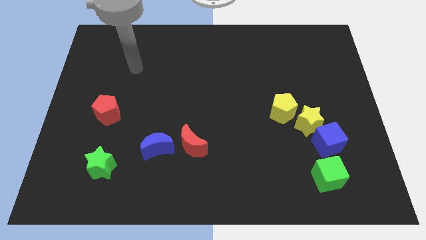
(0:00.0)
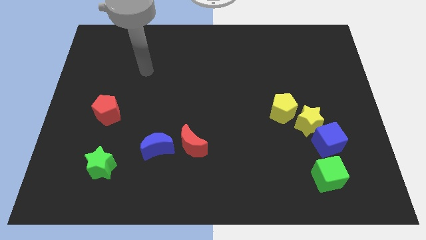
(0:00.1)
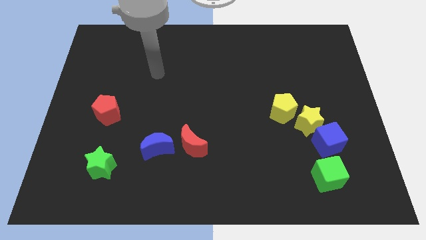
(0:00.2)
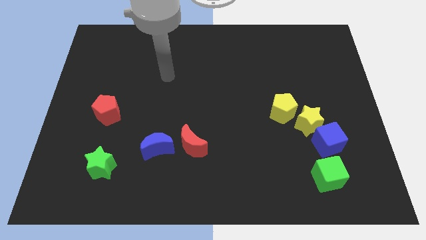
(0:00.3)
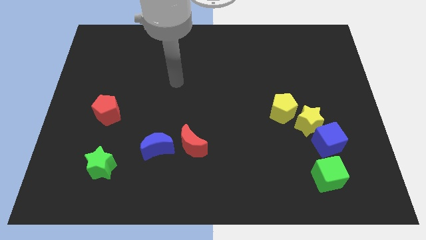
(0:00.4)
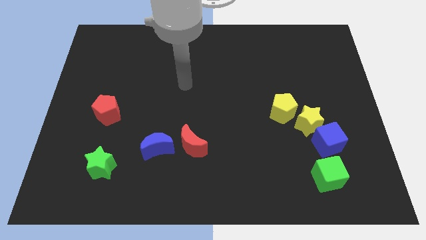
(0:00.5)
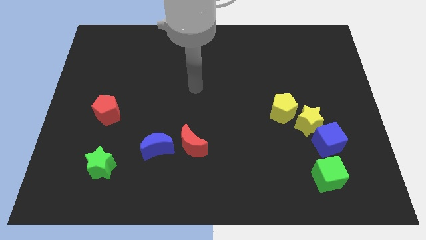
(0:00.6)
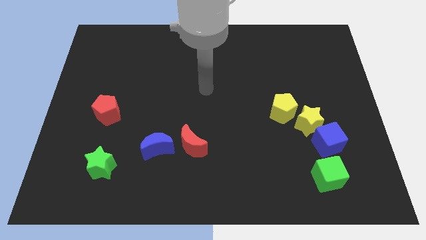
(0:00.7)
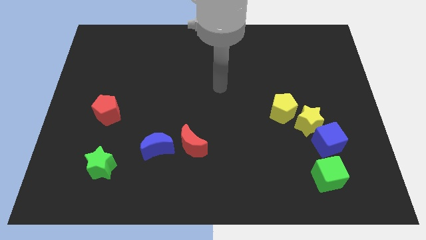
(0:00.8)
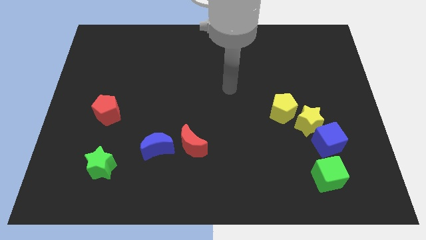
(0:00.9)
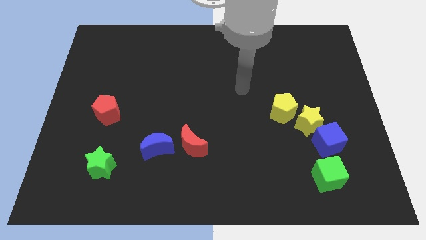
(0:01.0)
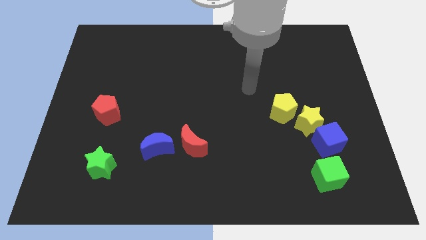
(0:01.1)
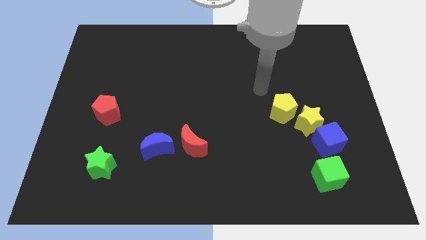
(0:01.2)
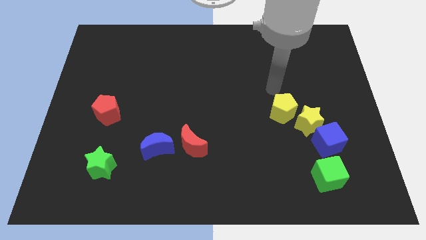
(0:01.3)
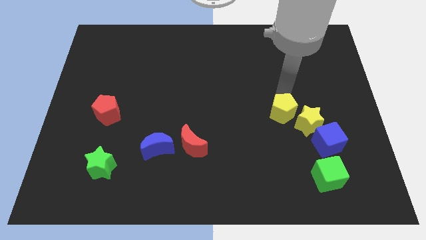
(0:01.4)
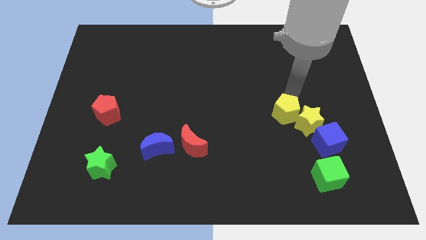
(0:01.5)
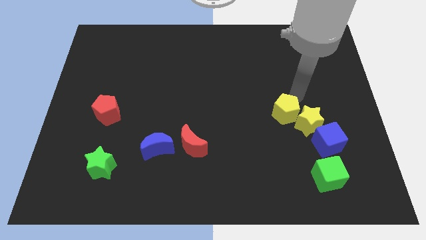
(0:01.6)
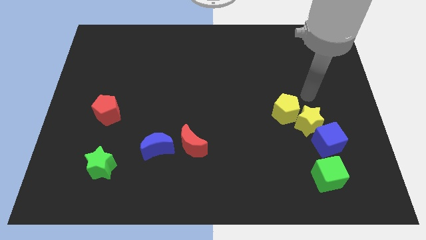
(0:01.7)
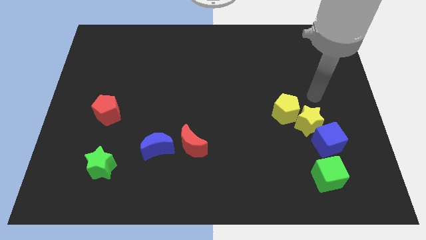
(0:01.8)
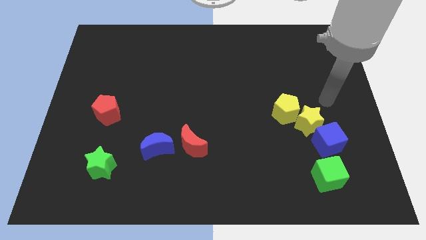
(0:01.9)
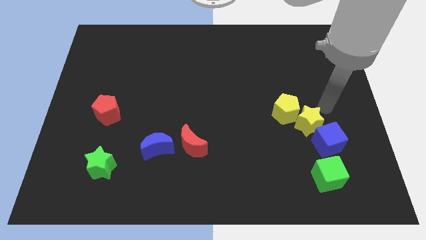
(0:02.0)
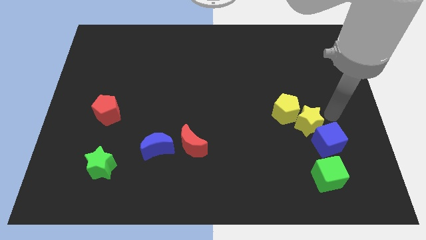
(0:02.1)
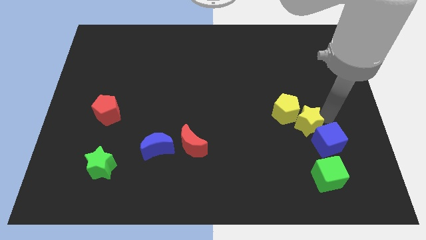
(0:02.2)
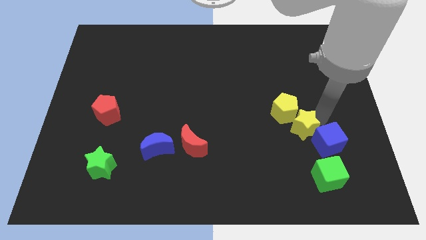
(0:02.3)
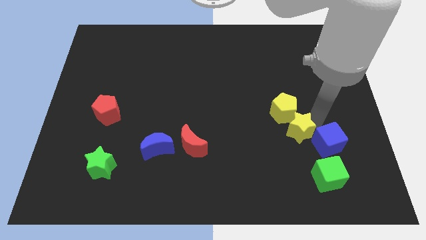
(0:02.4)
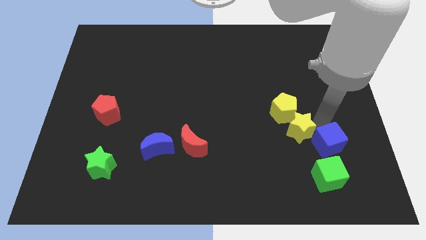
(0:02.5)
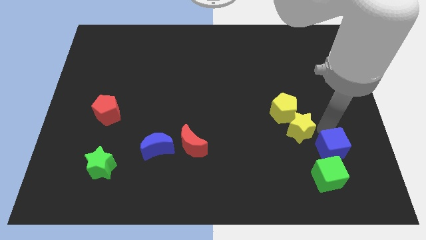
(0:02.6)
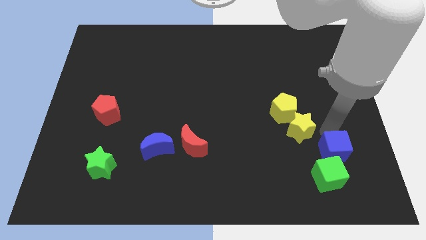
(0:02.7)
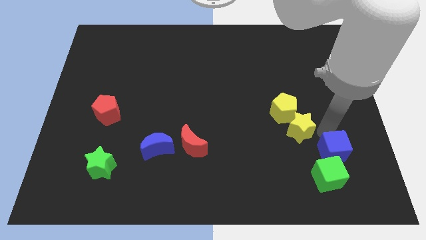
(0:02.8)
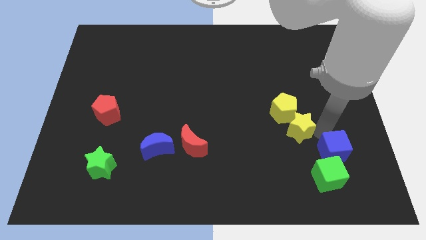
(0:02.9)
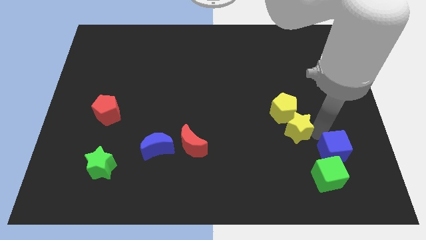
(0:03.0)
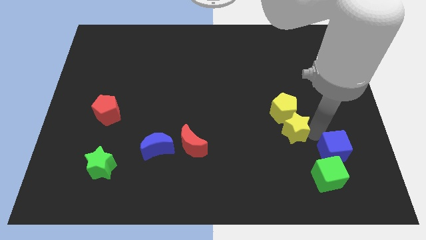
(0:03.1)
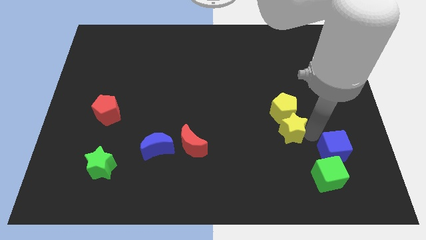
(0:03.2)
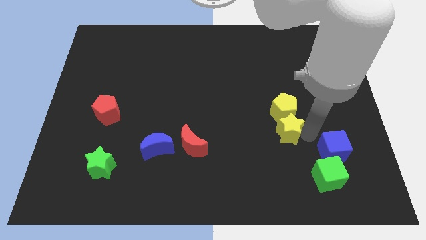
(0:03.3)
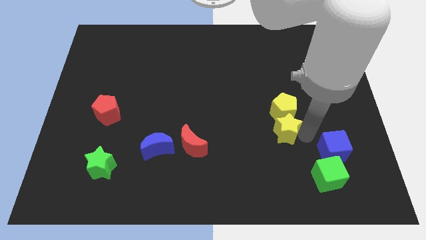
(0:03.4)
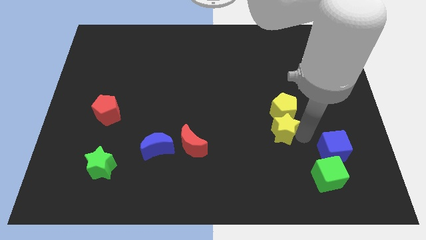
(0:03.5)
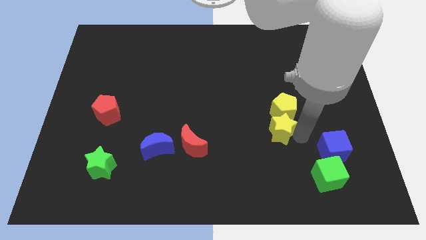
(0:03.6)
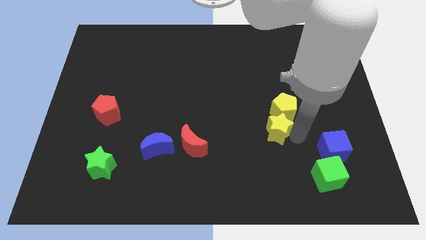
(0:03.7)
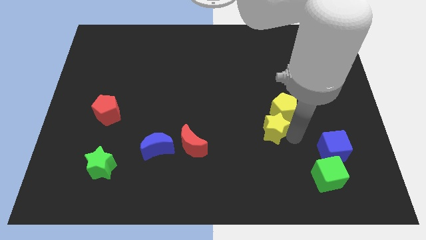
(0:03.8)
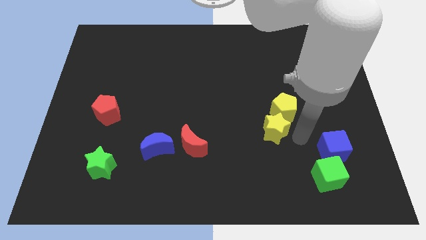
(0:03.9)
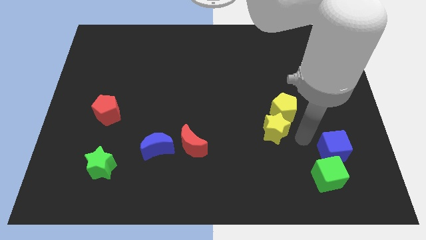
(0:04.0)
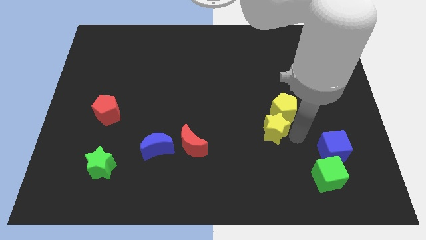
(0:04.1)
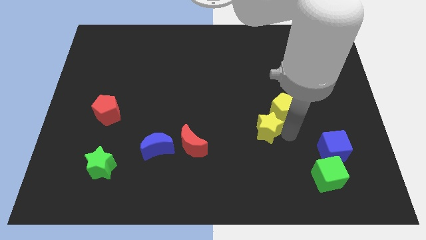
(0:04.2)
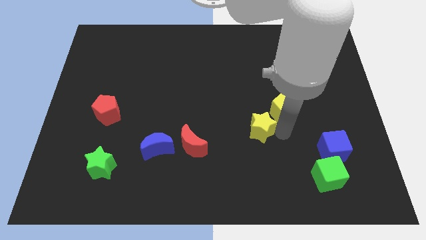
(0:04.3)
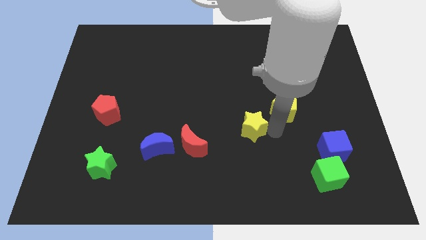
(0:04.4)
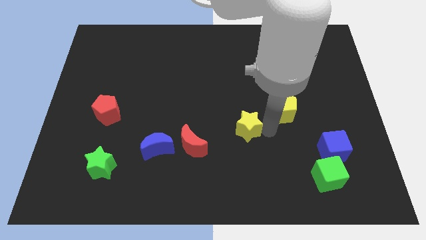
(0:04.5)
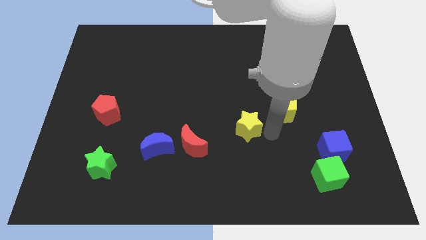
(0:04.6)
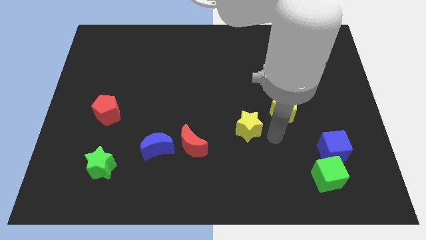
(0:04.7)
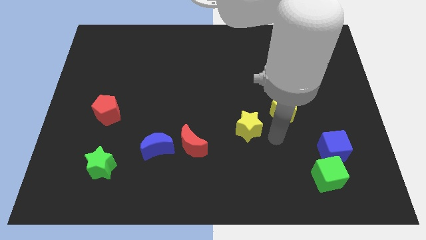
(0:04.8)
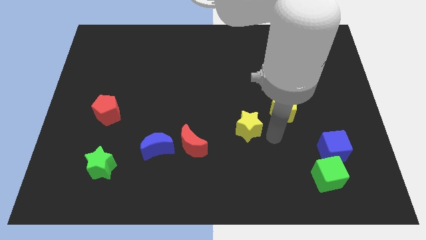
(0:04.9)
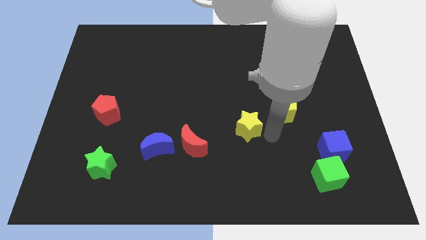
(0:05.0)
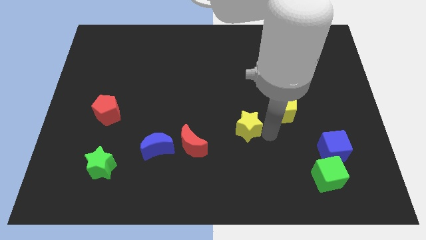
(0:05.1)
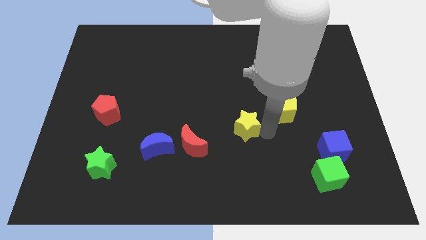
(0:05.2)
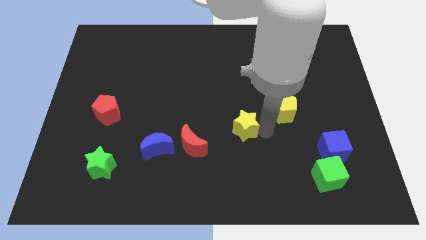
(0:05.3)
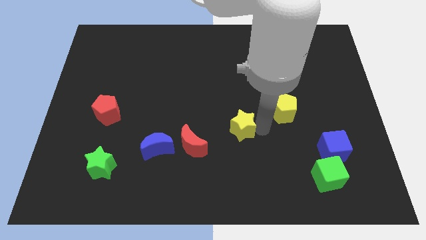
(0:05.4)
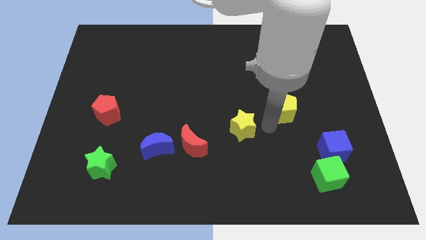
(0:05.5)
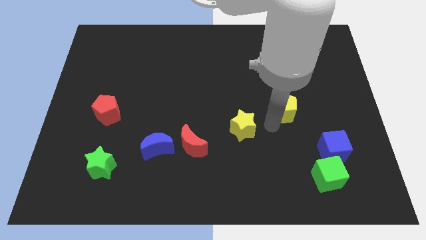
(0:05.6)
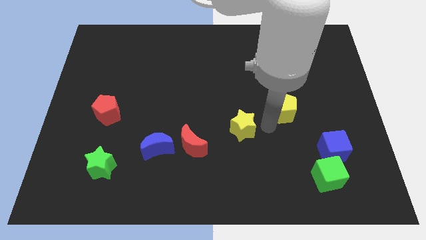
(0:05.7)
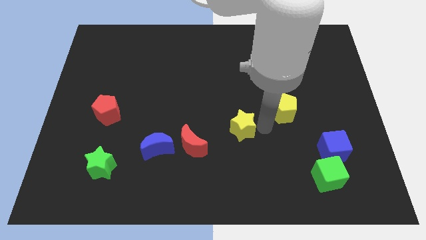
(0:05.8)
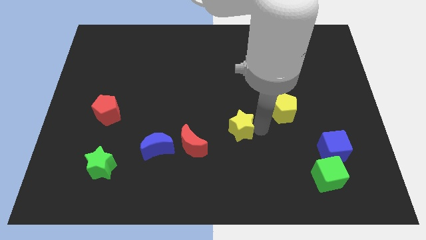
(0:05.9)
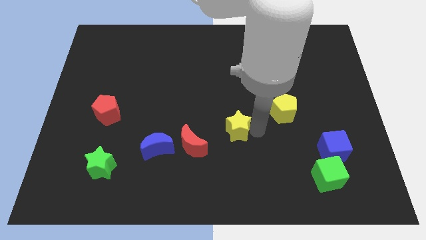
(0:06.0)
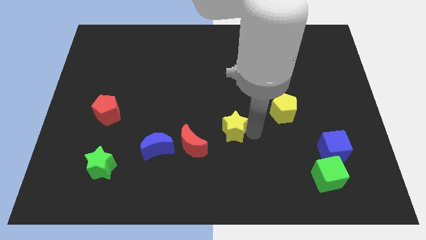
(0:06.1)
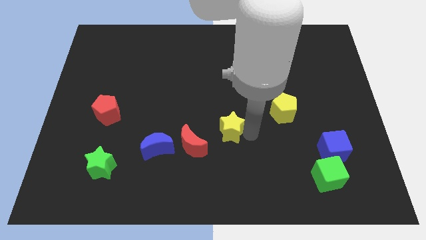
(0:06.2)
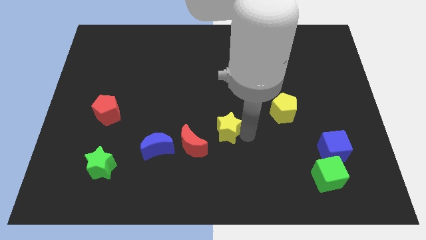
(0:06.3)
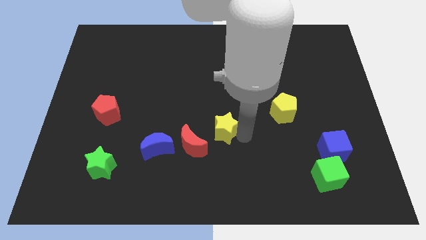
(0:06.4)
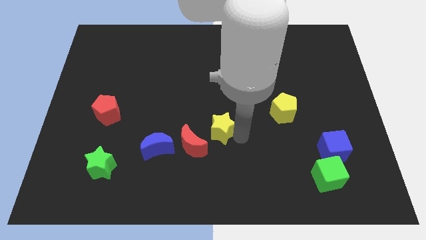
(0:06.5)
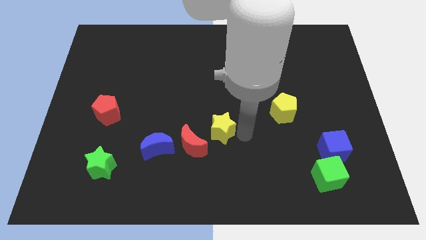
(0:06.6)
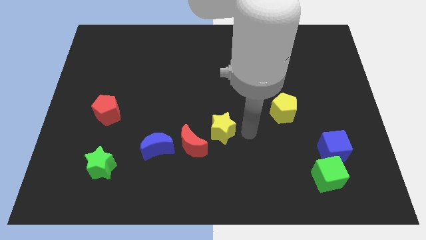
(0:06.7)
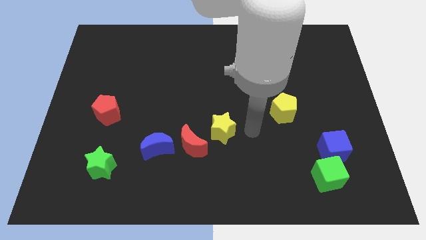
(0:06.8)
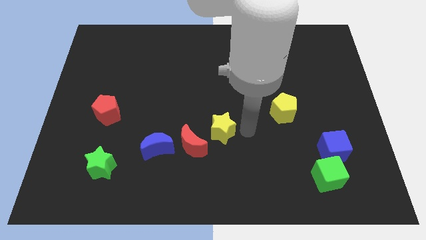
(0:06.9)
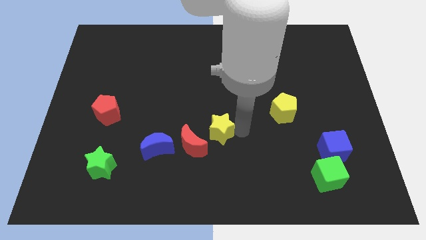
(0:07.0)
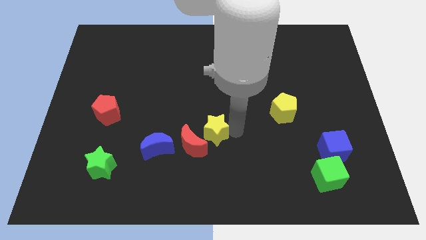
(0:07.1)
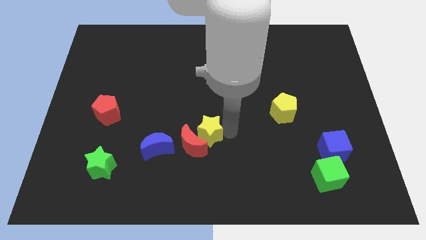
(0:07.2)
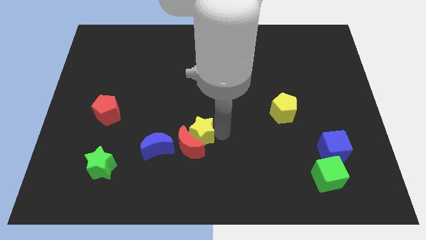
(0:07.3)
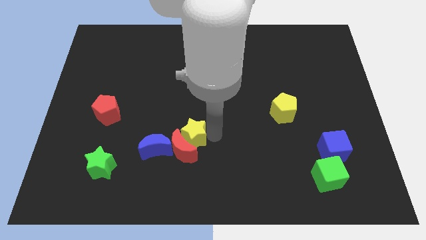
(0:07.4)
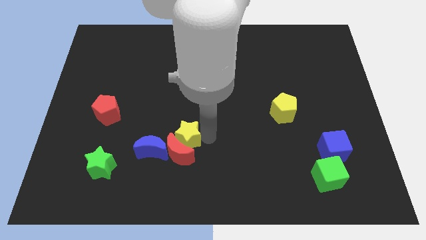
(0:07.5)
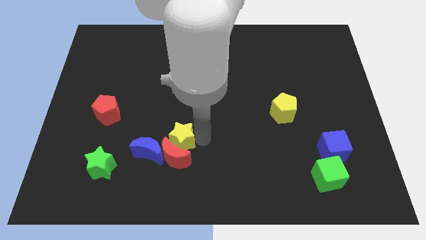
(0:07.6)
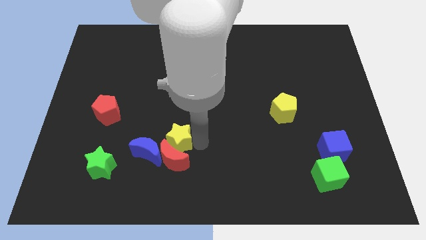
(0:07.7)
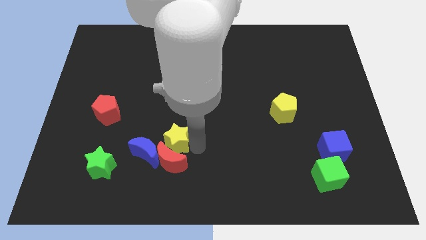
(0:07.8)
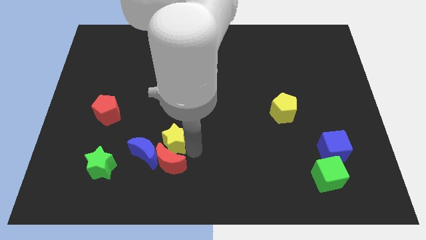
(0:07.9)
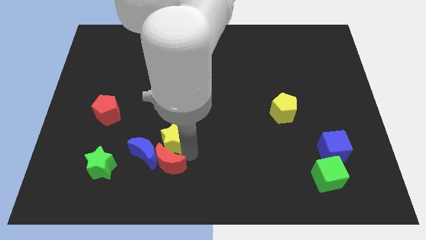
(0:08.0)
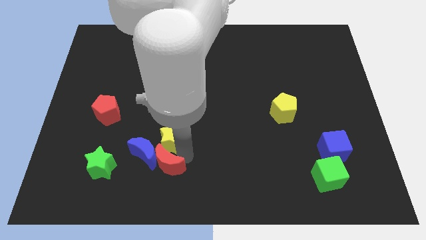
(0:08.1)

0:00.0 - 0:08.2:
push the yellow star next to the blue moon
